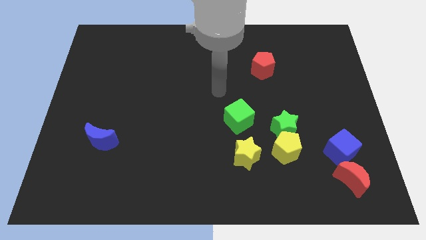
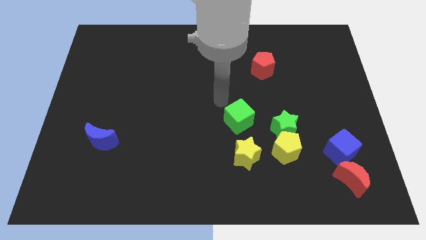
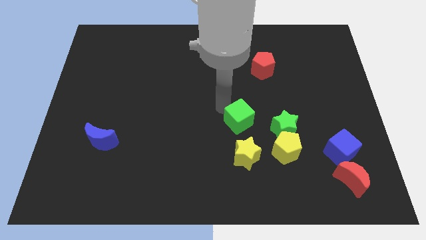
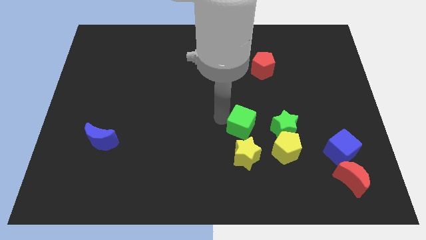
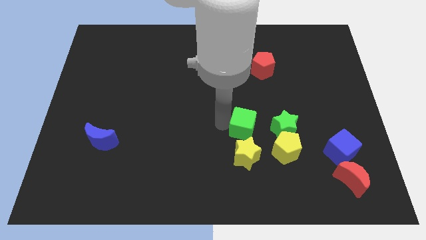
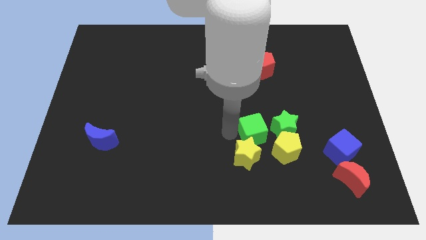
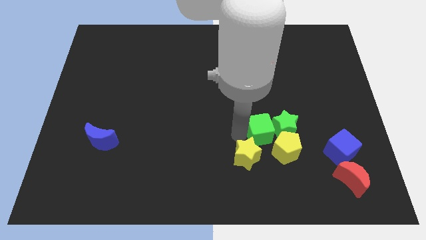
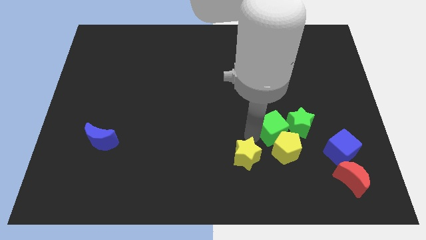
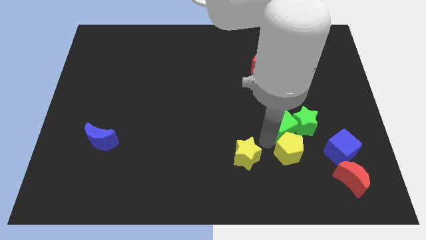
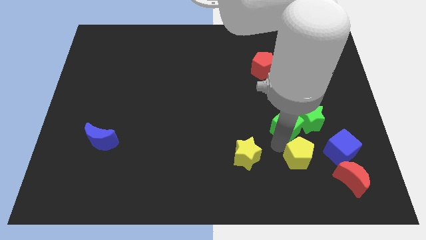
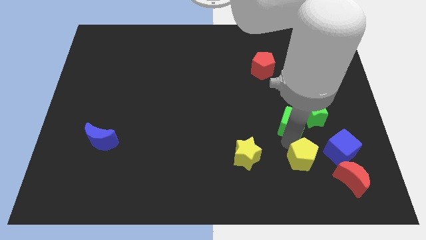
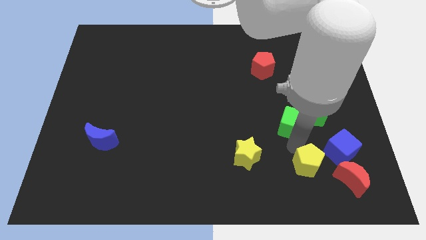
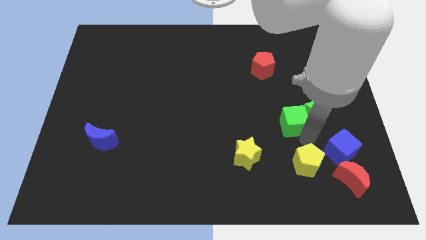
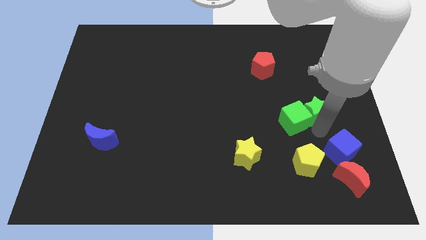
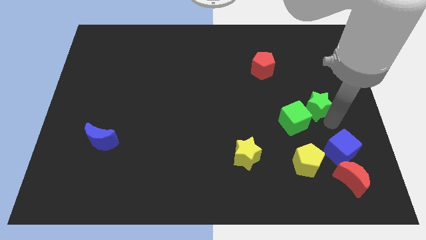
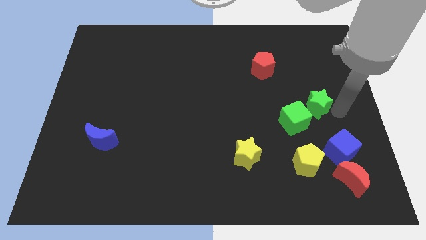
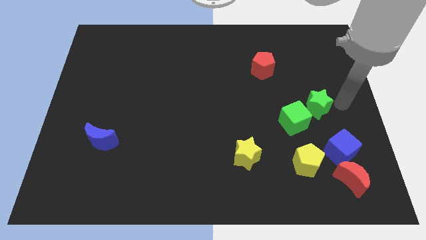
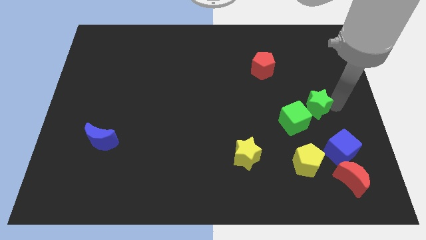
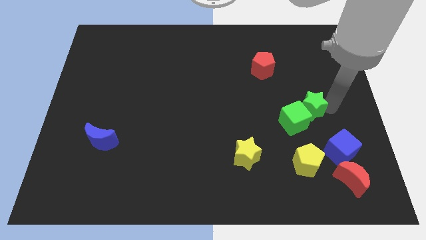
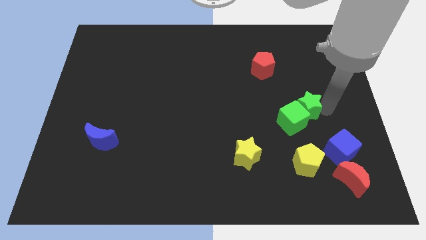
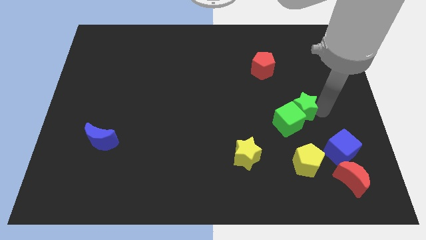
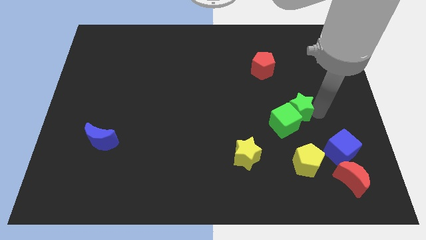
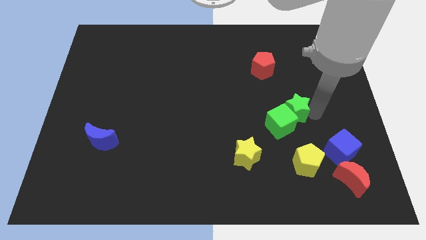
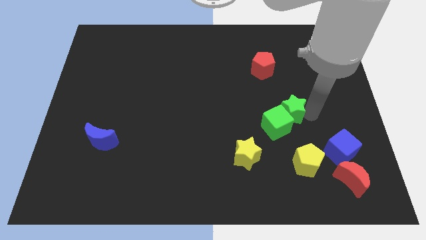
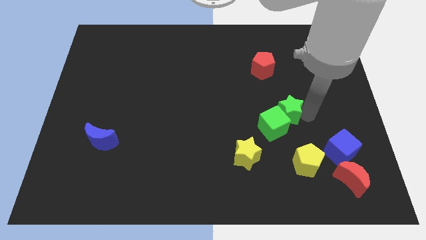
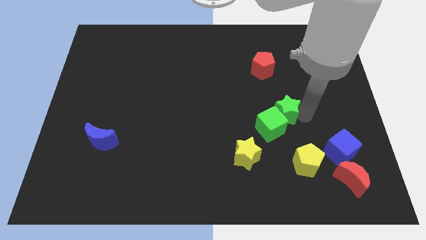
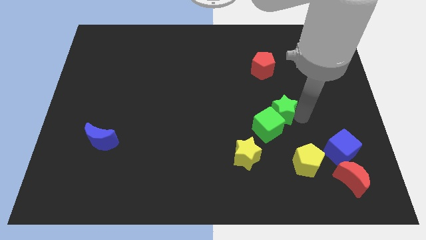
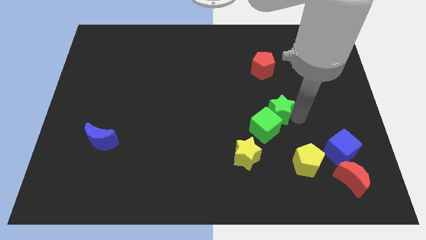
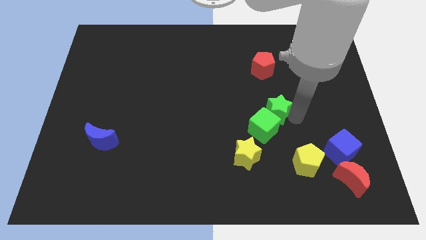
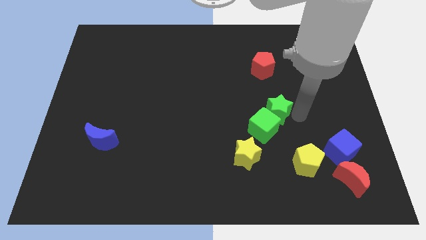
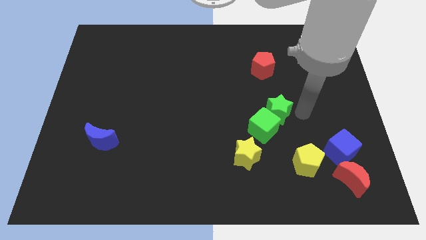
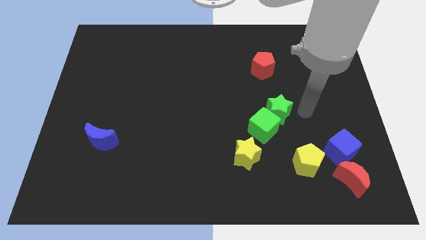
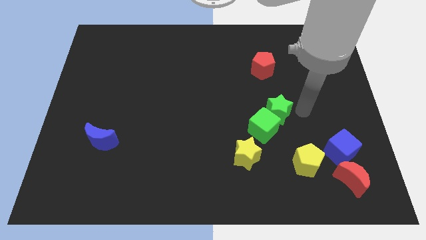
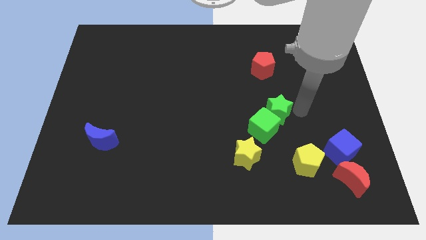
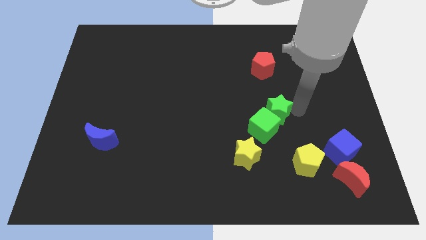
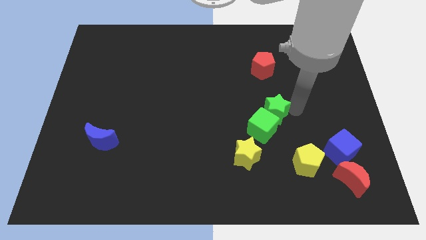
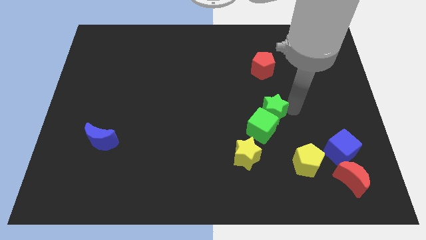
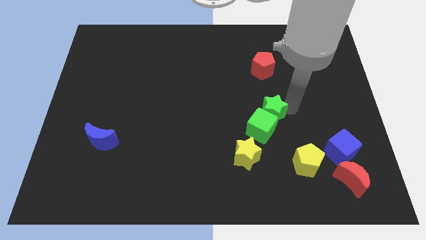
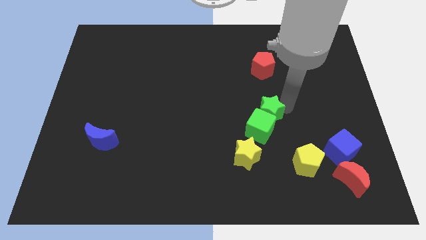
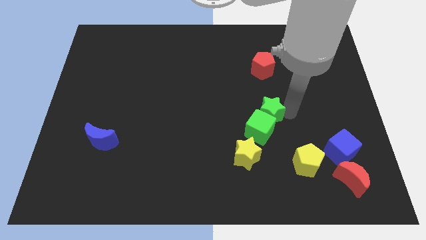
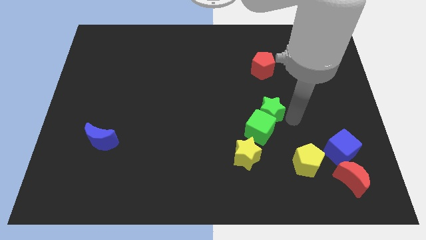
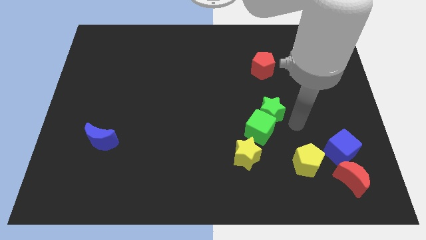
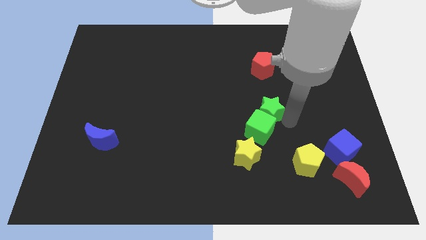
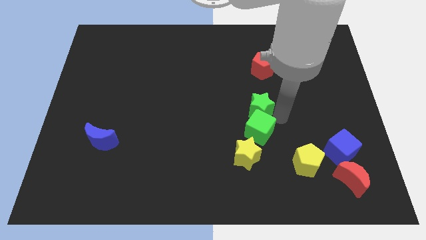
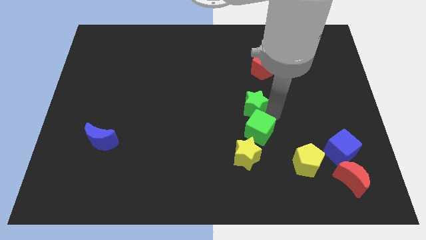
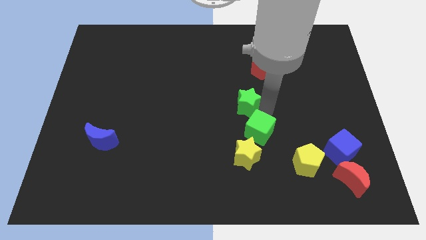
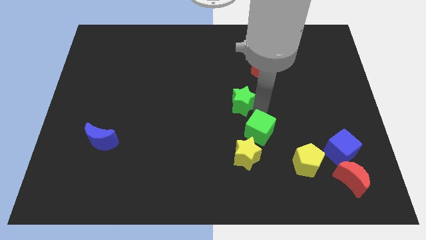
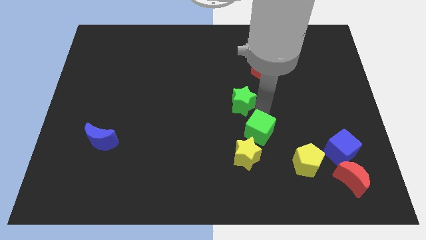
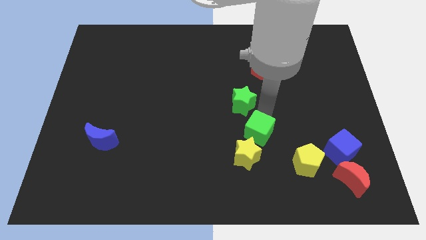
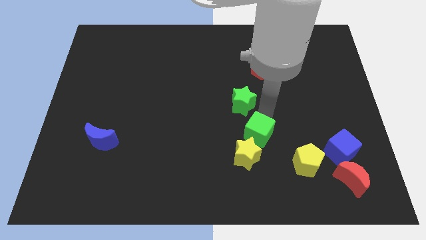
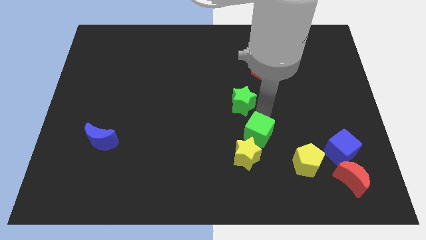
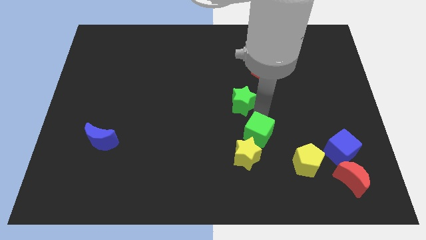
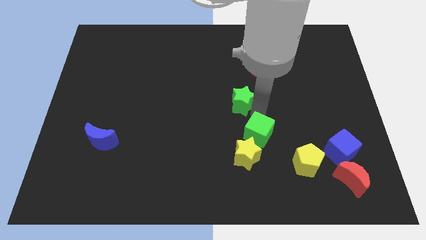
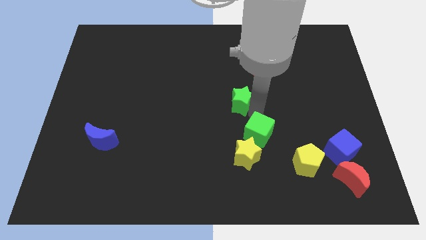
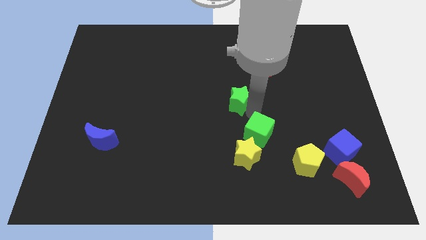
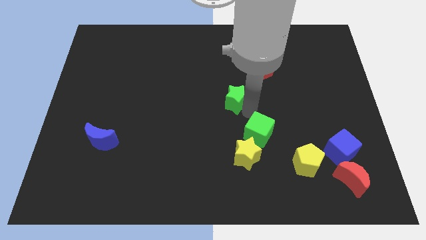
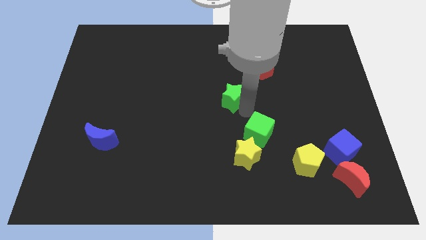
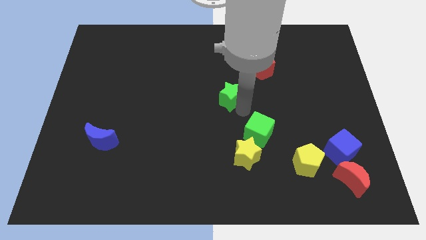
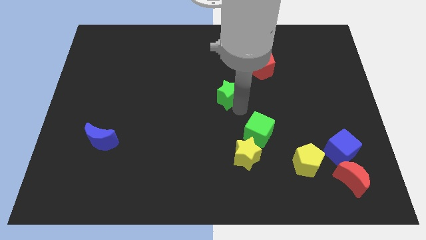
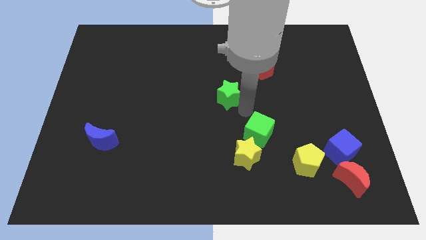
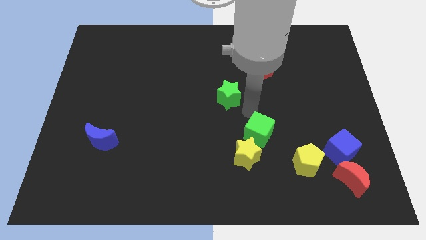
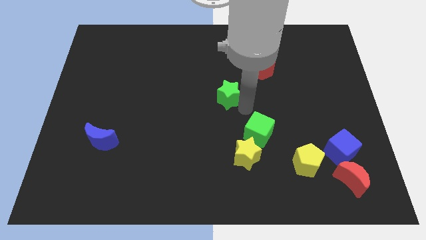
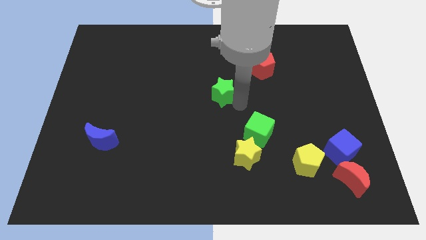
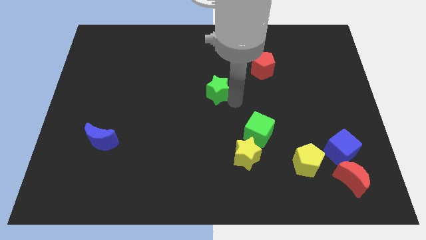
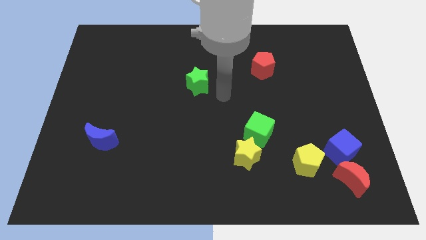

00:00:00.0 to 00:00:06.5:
move the green star upwards and to the left diagonally

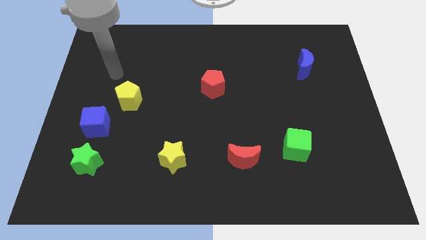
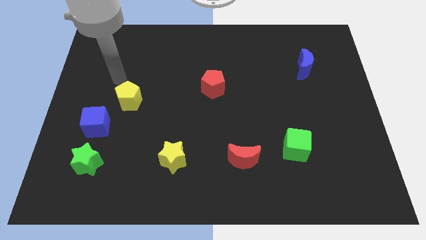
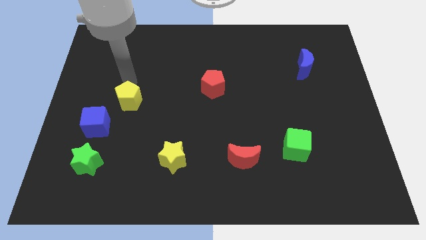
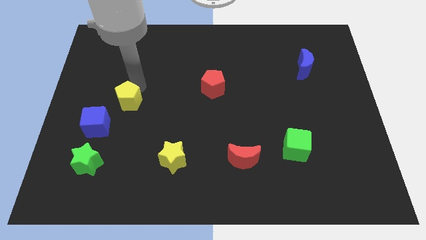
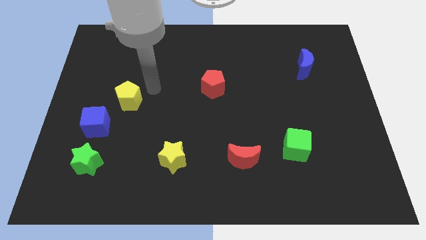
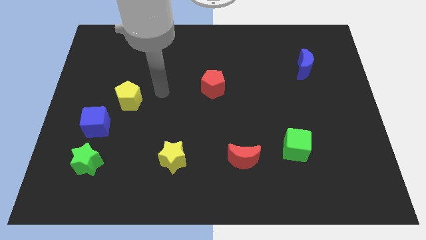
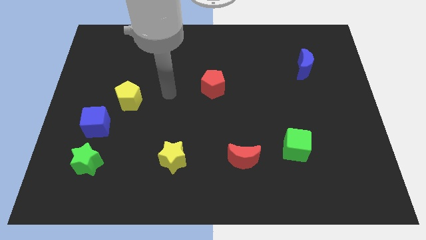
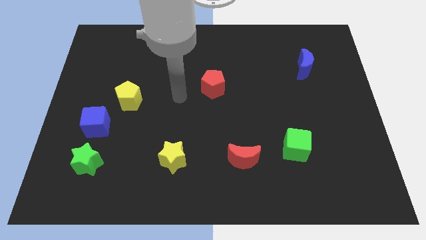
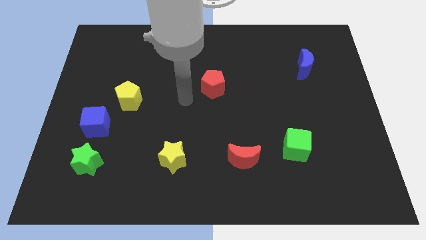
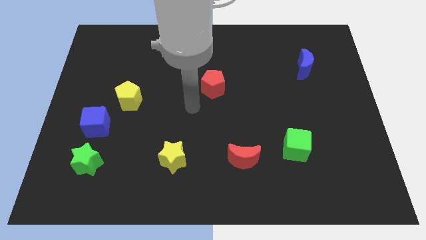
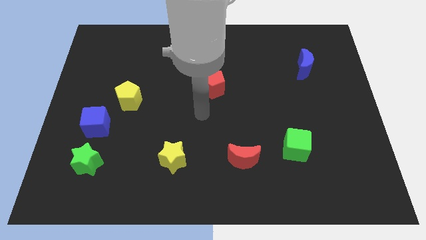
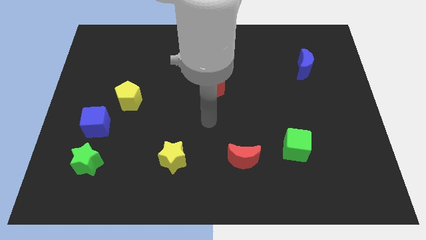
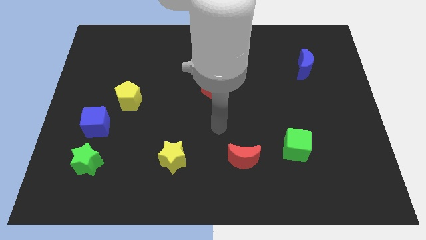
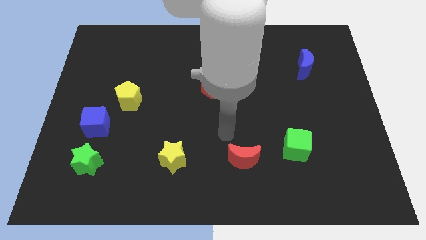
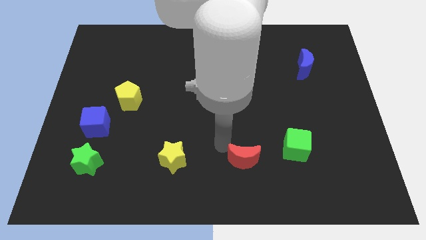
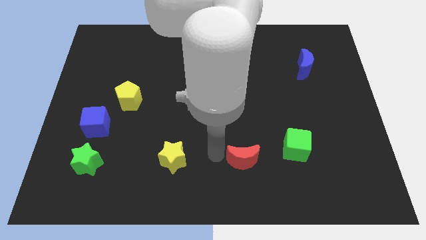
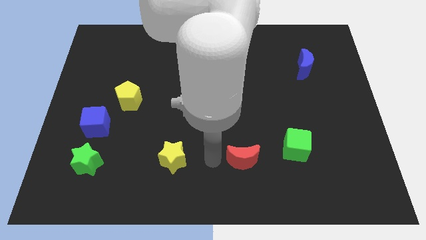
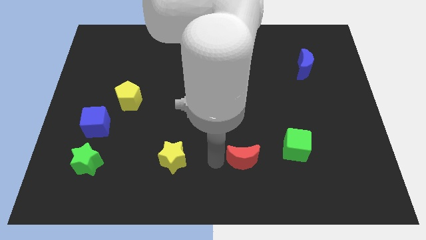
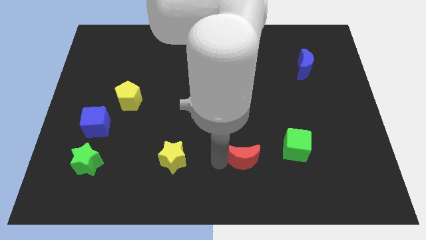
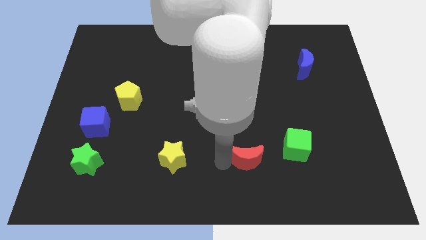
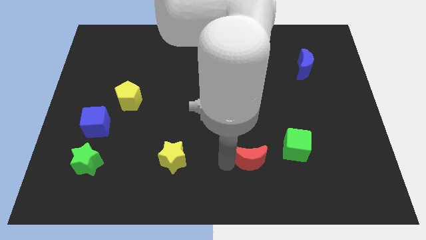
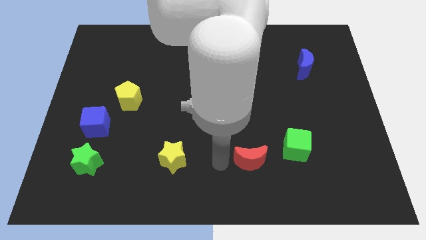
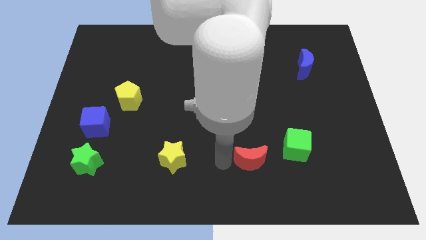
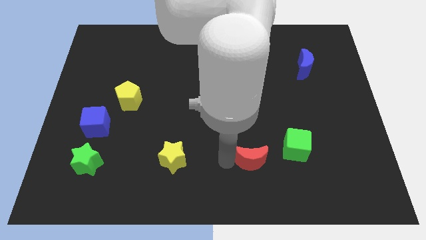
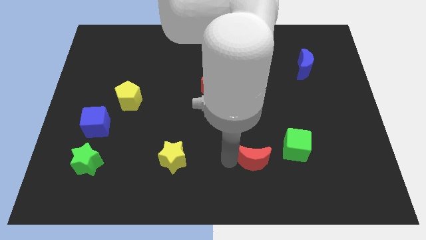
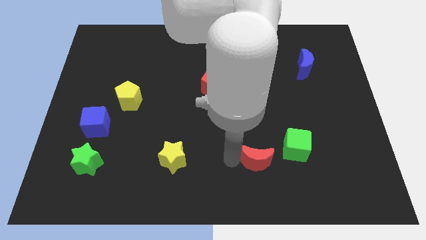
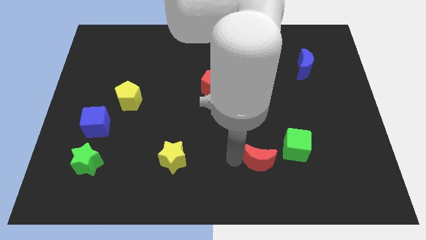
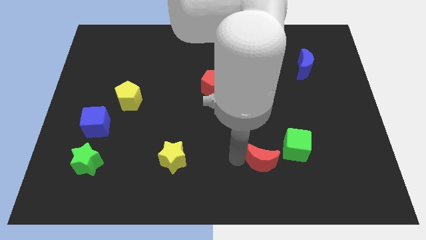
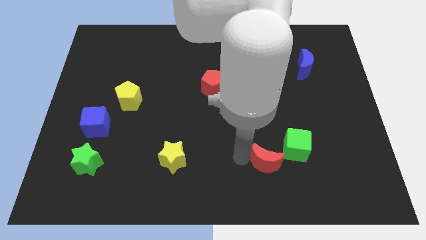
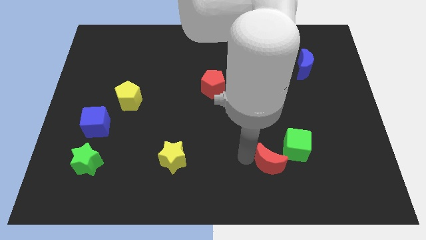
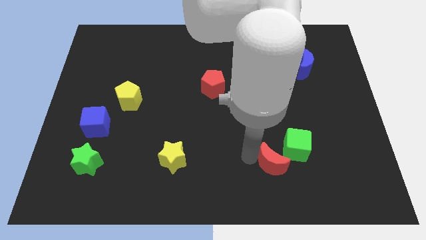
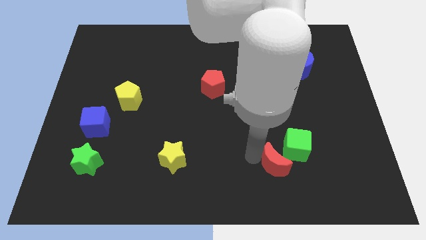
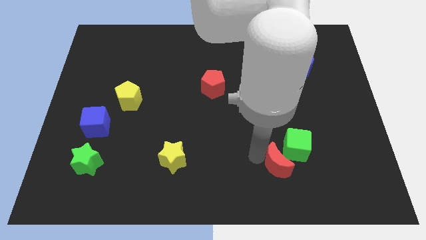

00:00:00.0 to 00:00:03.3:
slightly push the red moon to the right
